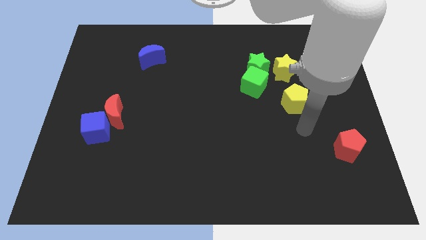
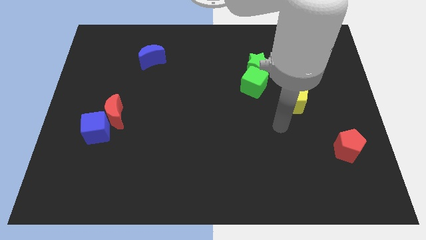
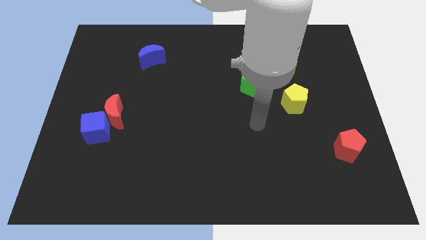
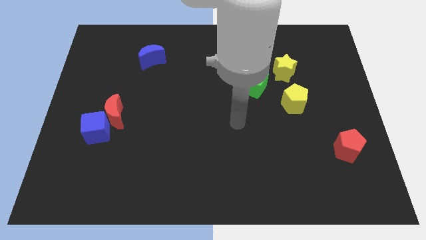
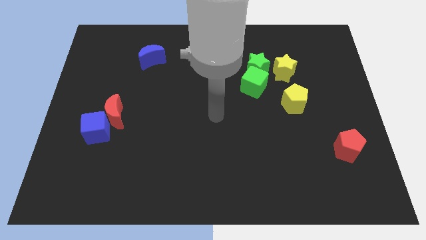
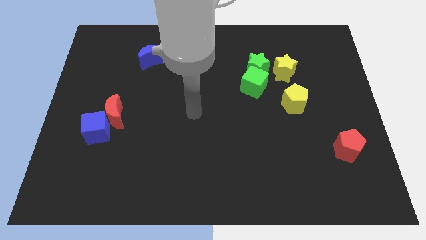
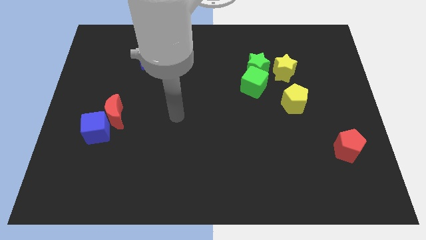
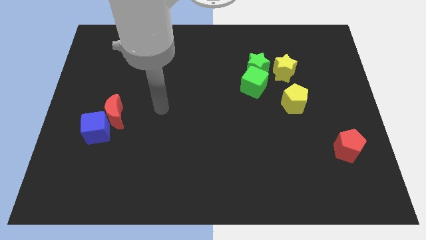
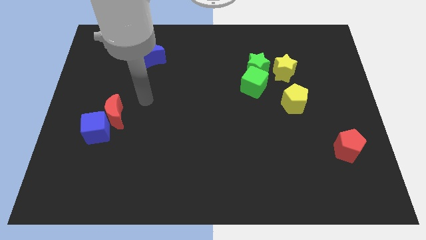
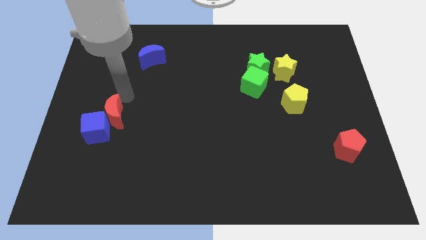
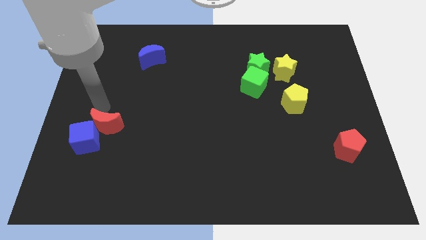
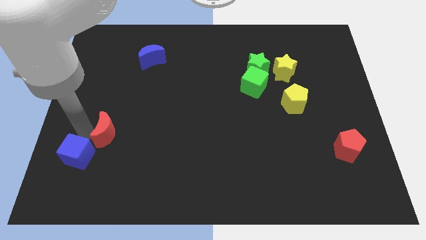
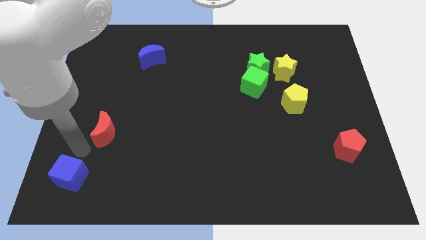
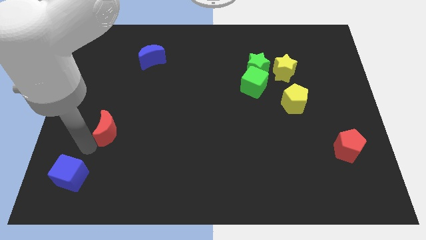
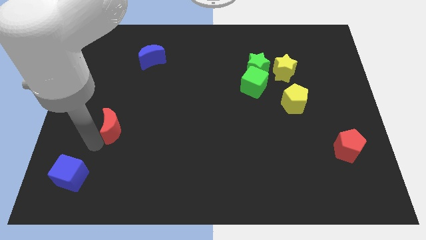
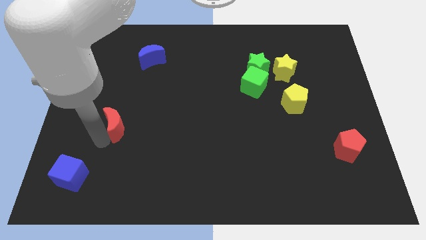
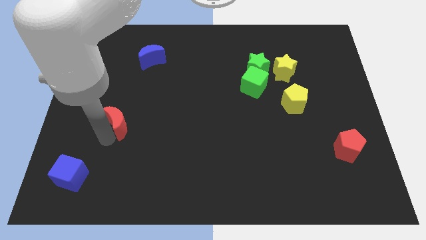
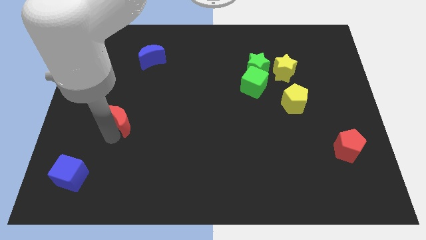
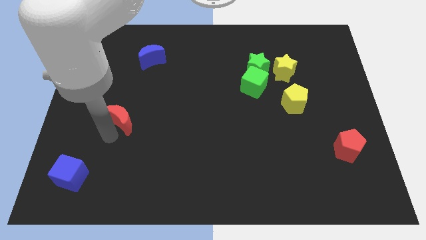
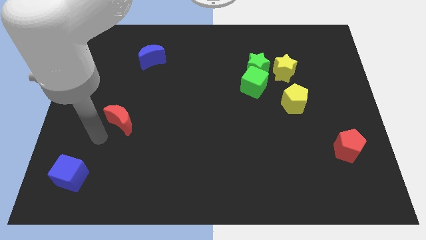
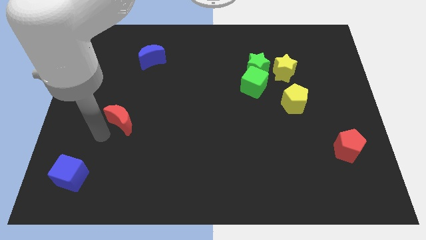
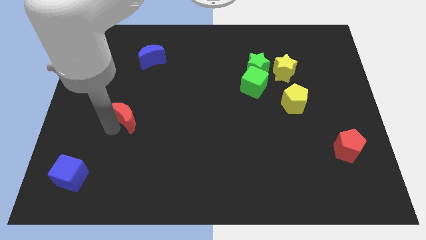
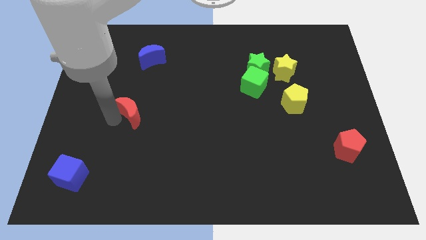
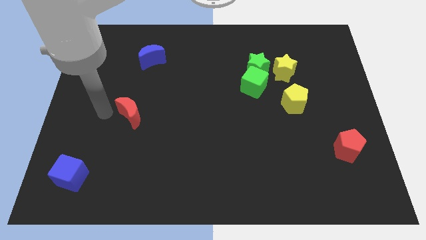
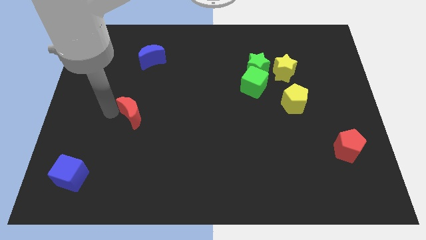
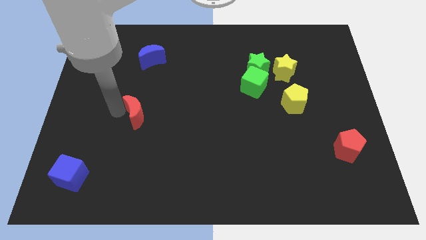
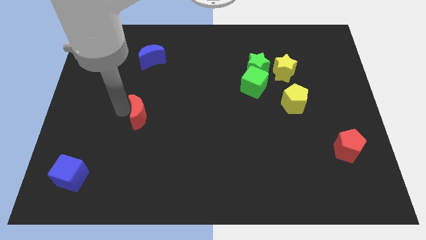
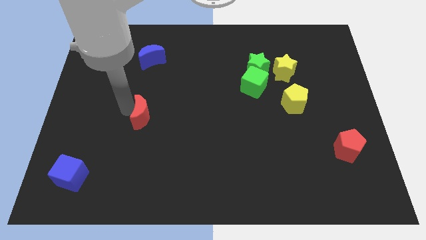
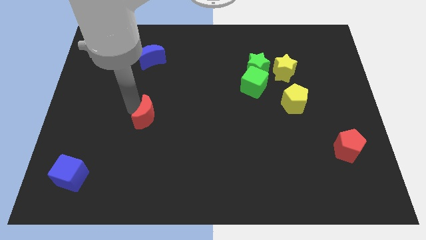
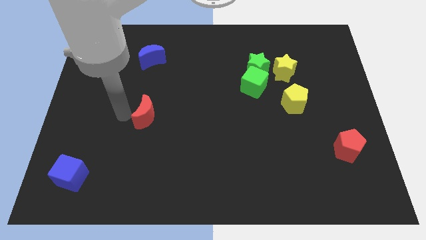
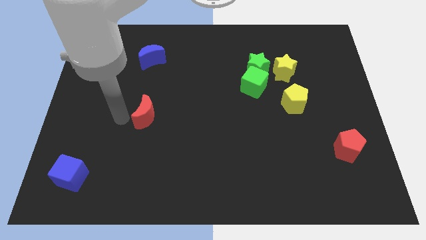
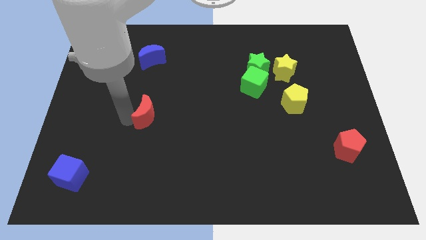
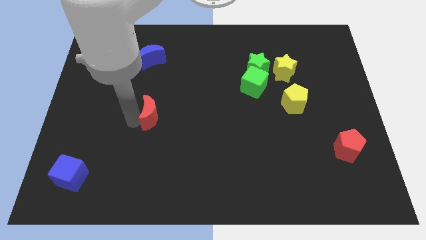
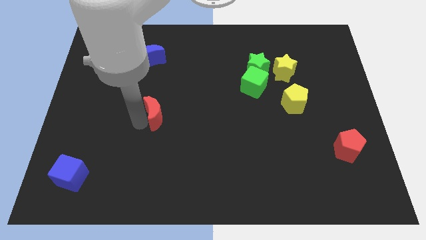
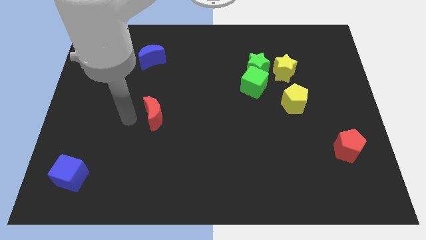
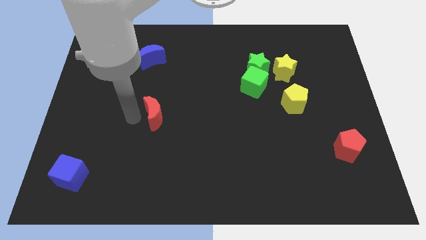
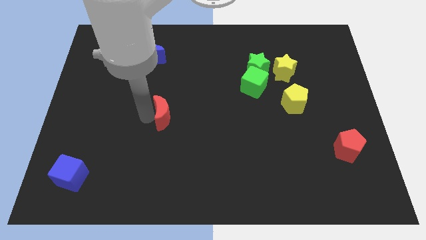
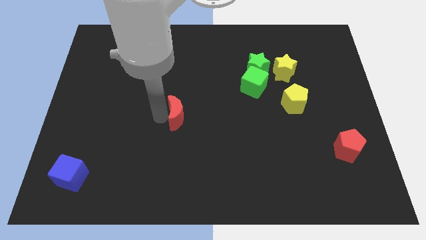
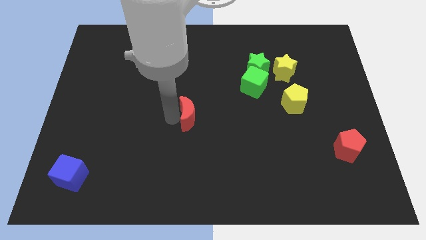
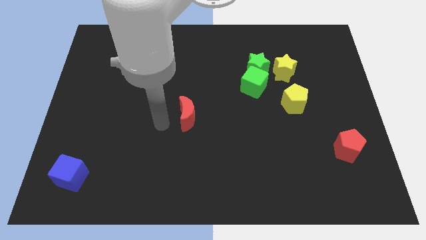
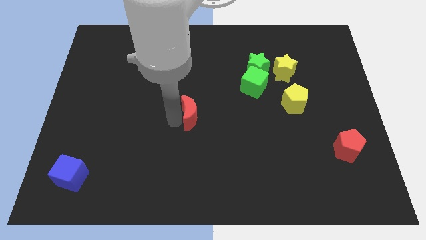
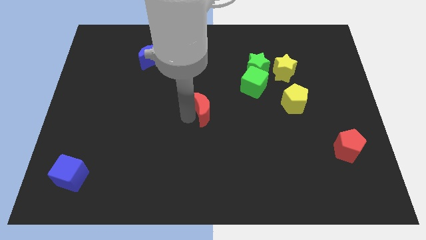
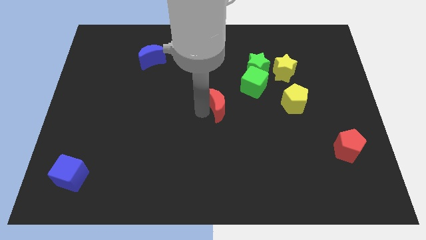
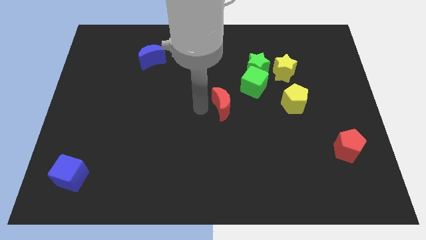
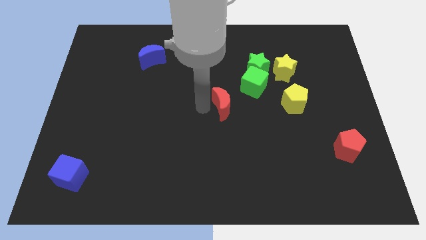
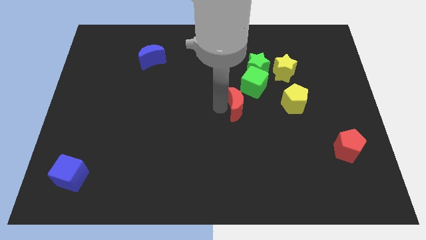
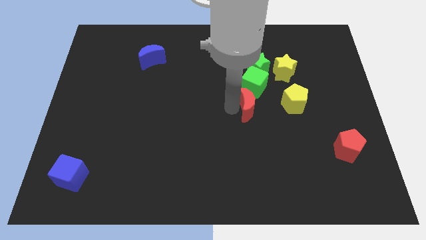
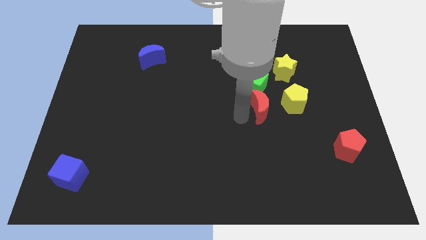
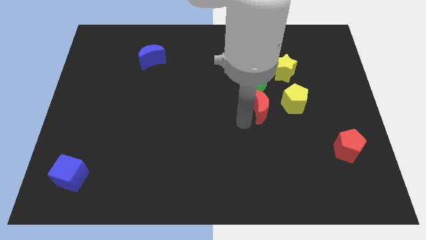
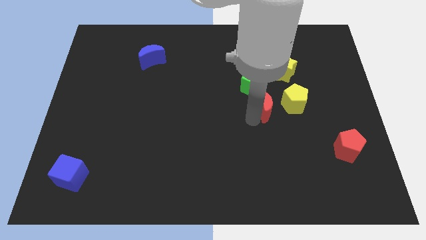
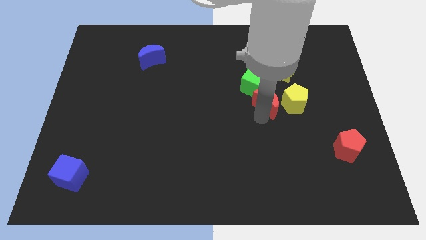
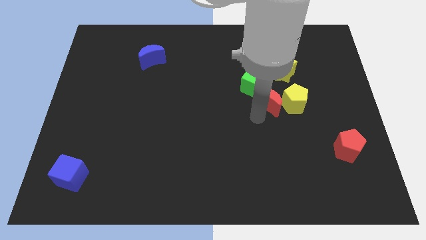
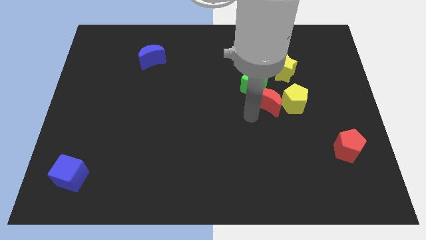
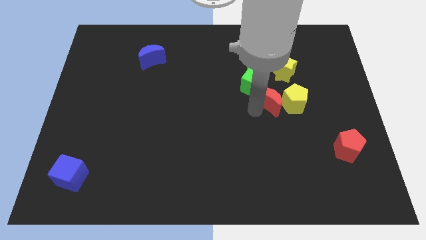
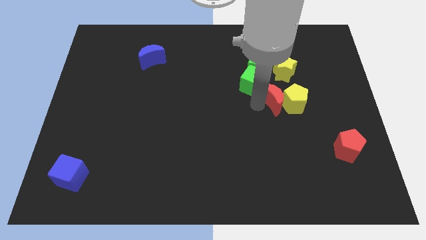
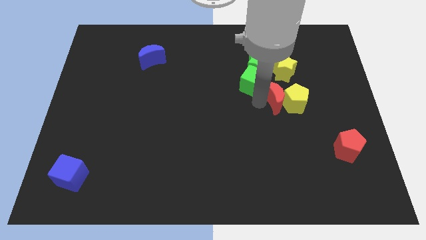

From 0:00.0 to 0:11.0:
slide the red moon to the right side of the green cube

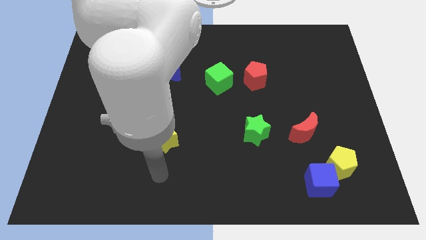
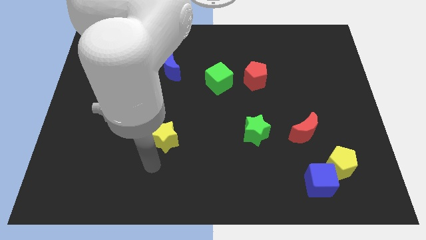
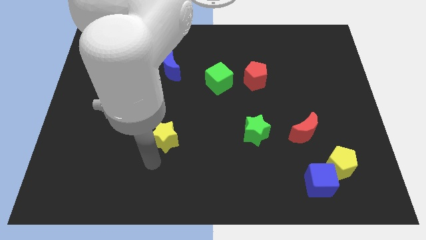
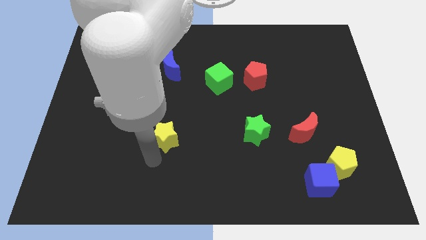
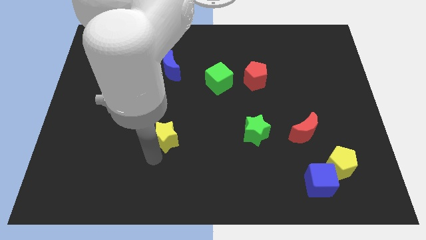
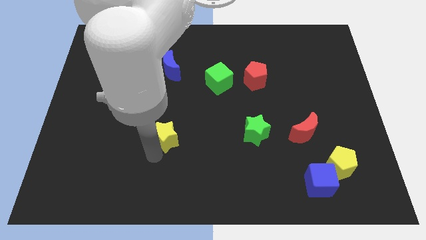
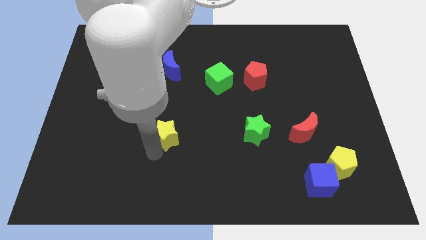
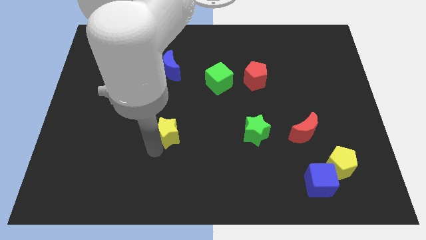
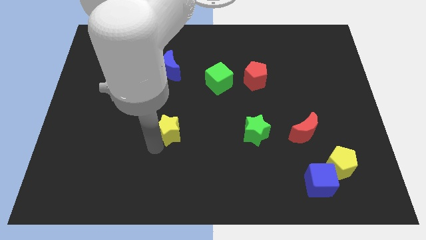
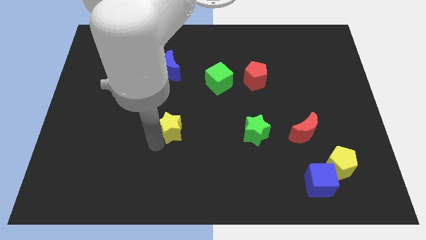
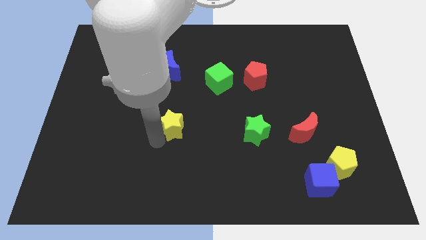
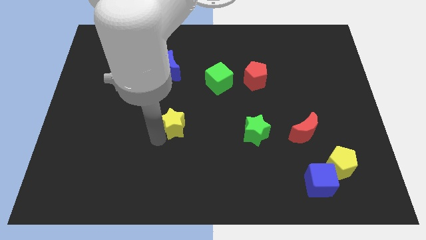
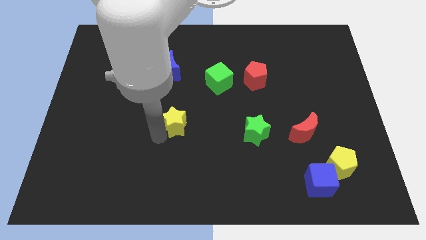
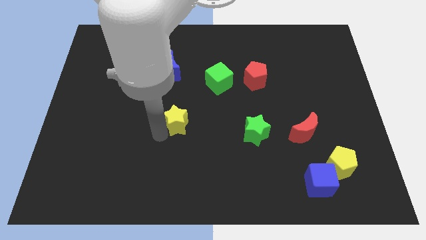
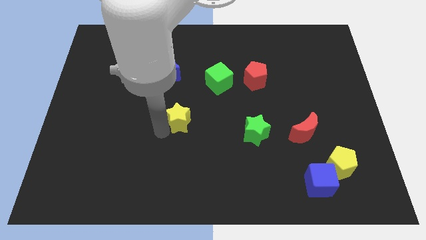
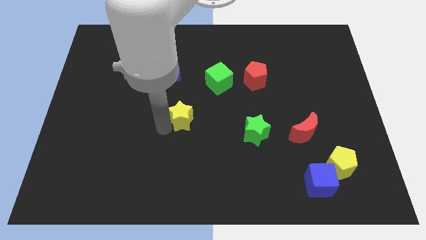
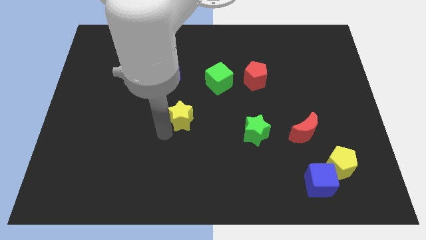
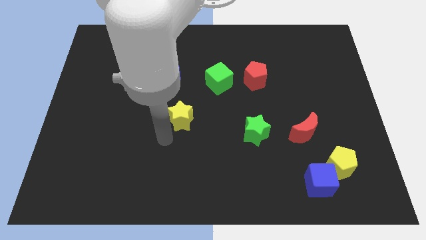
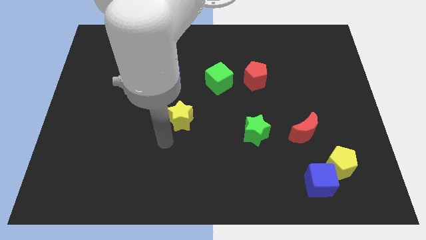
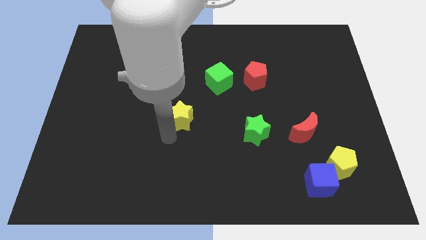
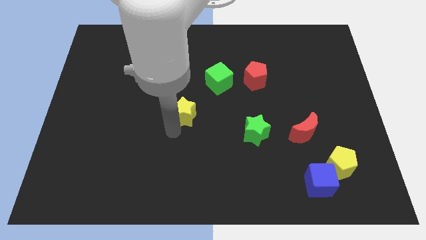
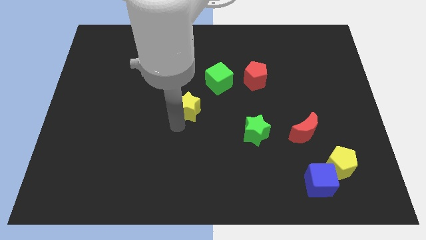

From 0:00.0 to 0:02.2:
slide the yellow star to the bottom left side of the green cube
